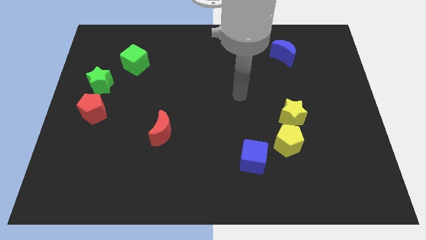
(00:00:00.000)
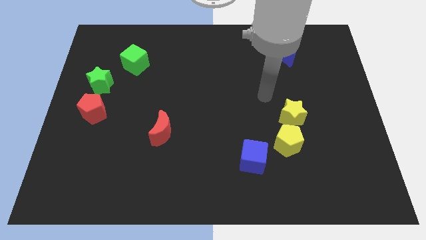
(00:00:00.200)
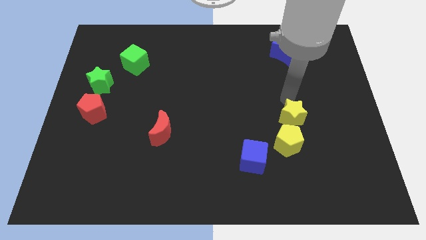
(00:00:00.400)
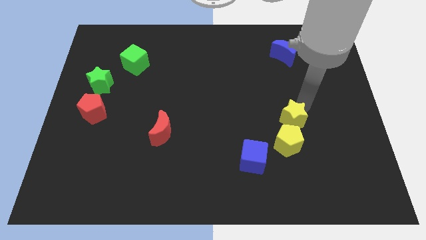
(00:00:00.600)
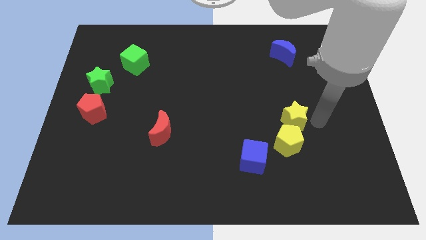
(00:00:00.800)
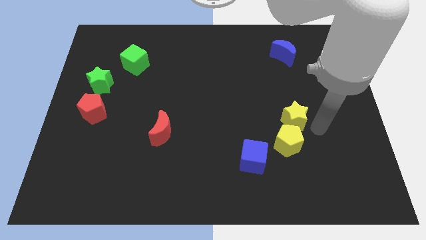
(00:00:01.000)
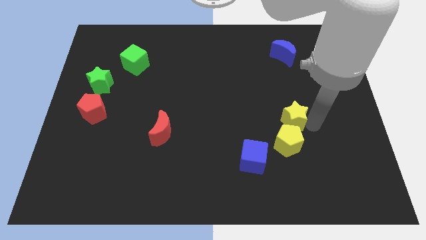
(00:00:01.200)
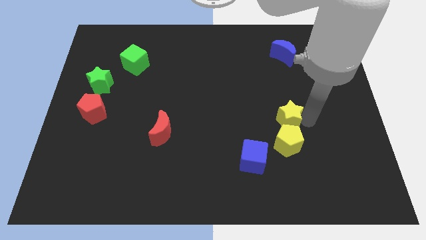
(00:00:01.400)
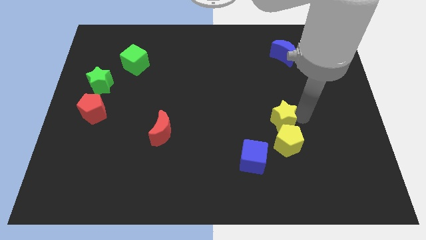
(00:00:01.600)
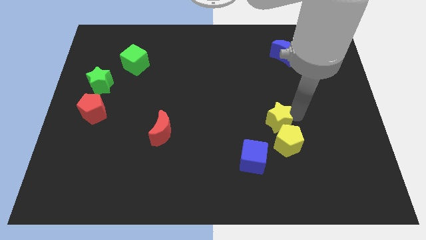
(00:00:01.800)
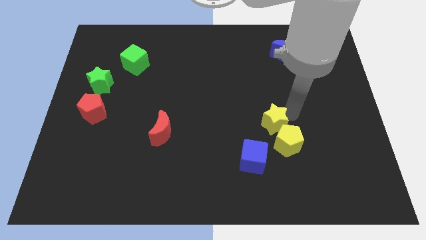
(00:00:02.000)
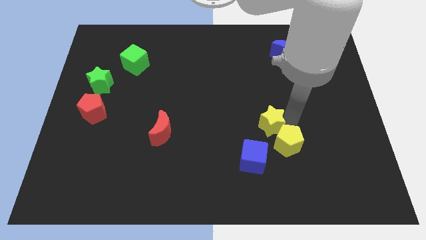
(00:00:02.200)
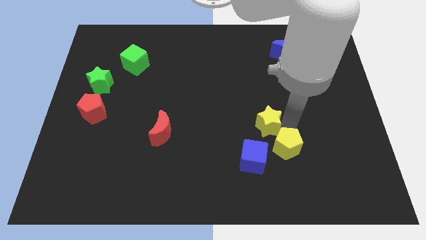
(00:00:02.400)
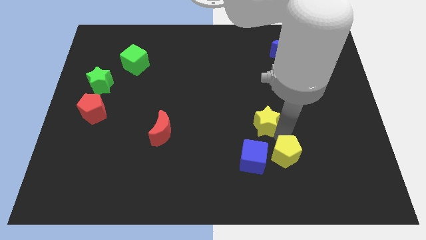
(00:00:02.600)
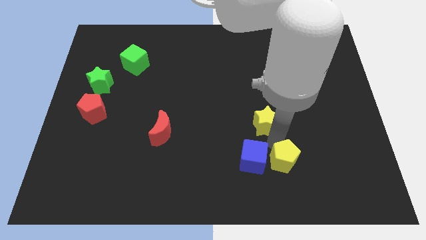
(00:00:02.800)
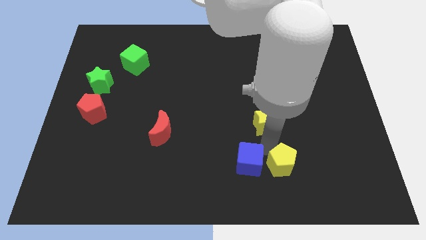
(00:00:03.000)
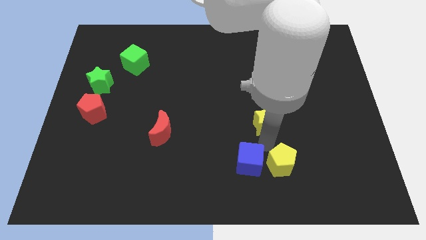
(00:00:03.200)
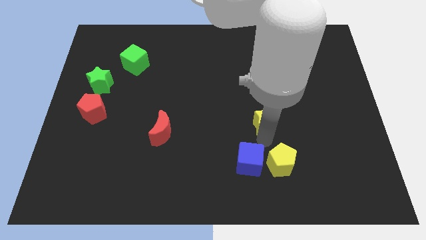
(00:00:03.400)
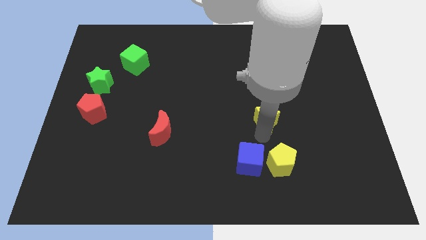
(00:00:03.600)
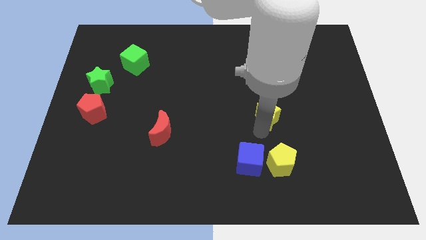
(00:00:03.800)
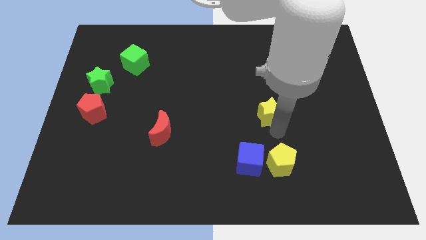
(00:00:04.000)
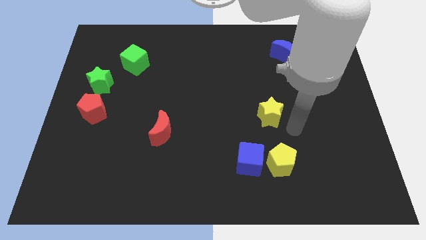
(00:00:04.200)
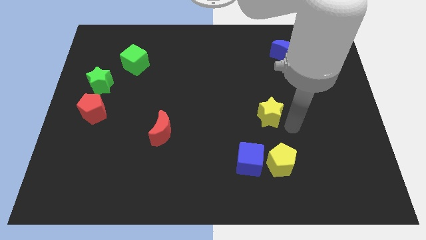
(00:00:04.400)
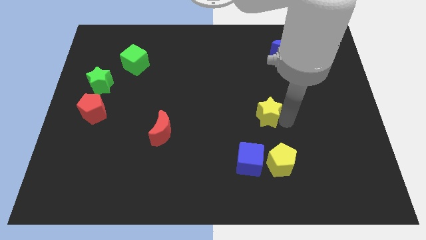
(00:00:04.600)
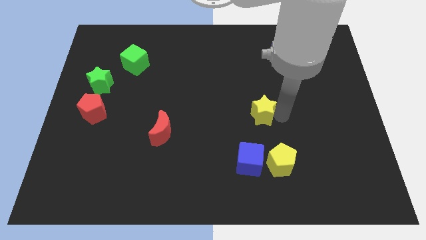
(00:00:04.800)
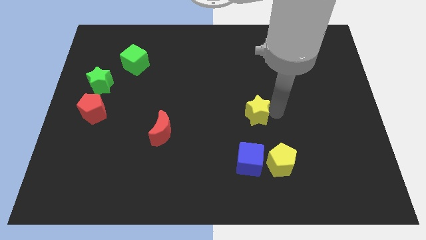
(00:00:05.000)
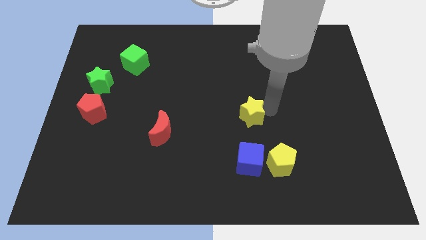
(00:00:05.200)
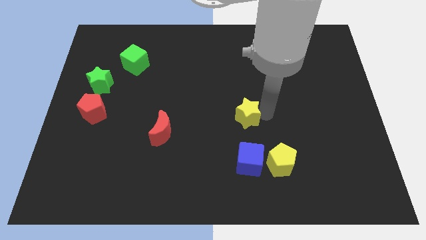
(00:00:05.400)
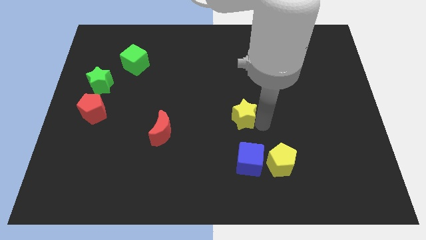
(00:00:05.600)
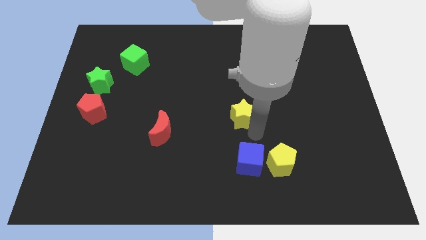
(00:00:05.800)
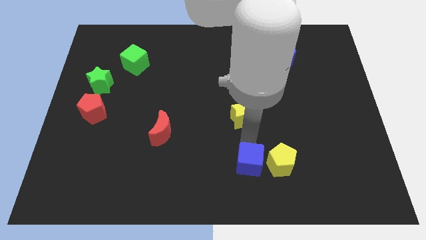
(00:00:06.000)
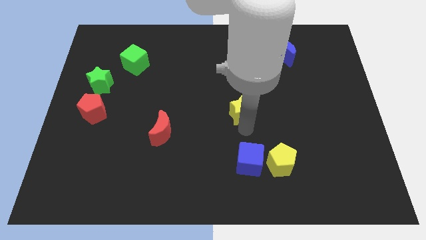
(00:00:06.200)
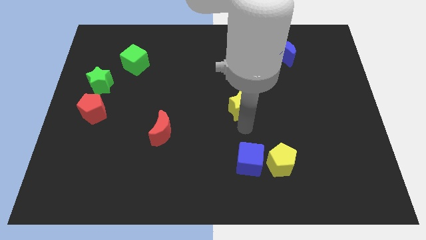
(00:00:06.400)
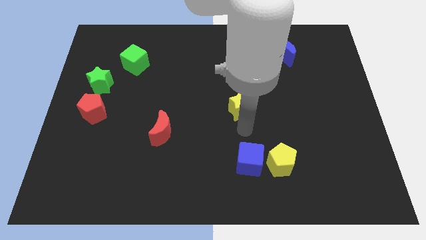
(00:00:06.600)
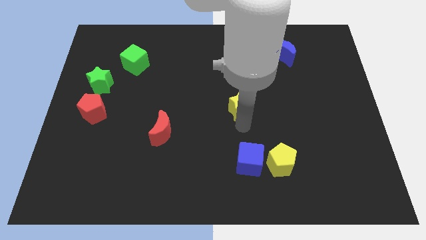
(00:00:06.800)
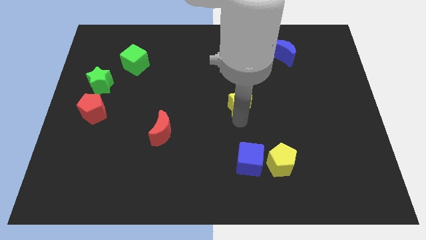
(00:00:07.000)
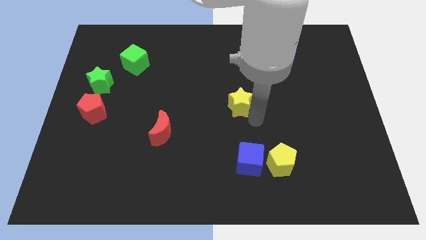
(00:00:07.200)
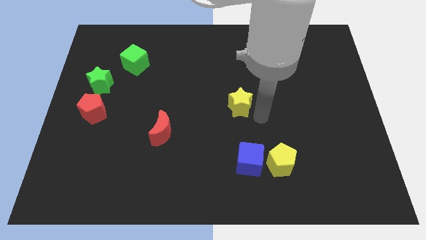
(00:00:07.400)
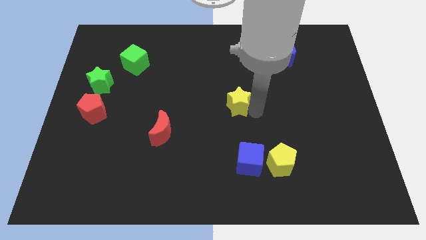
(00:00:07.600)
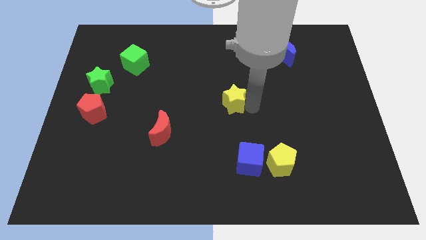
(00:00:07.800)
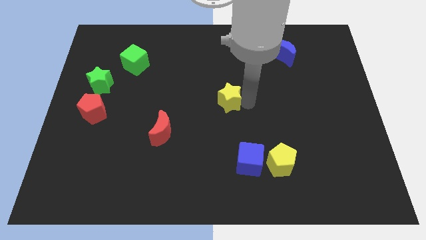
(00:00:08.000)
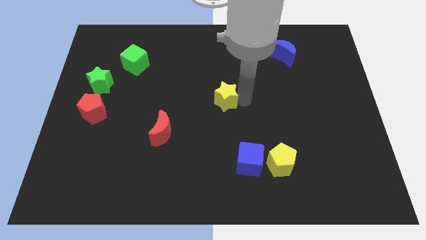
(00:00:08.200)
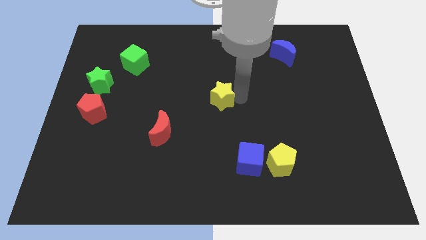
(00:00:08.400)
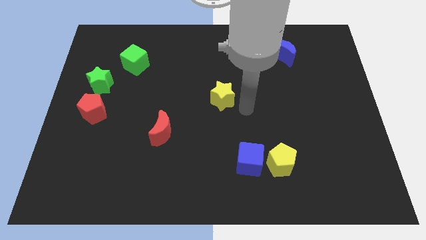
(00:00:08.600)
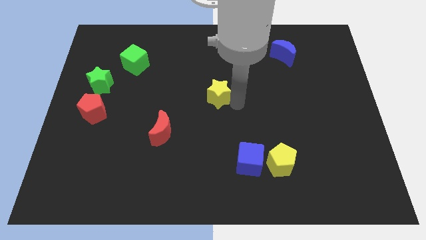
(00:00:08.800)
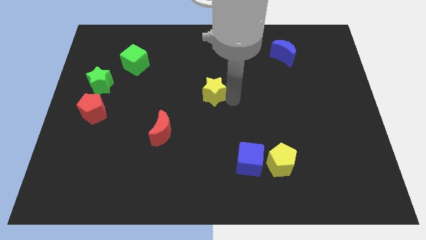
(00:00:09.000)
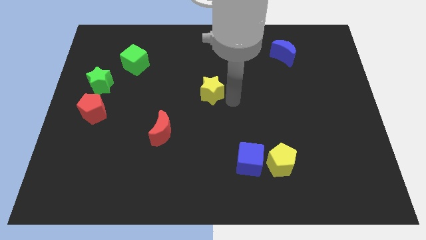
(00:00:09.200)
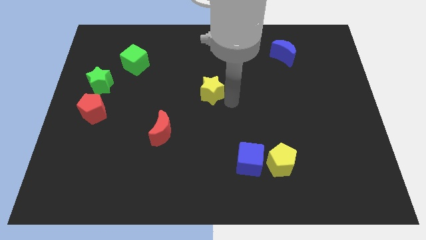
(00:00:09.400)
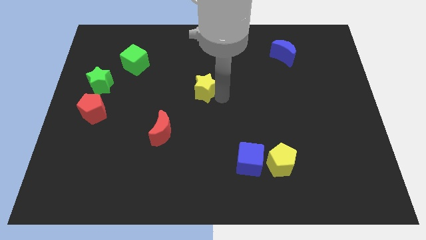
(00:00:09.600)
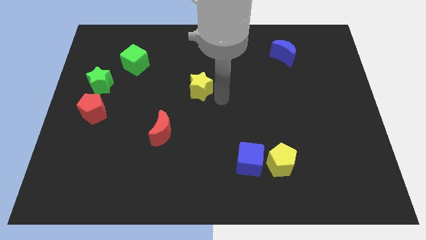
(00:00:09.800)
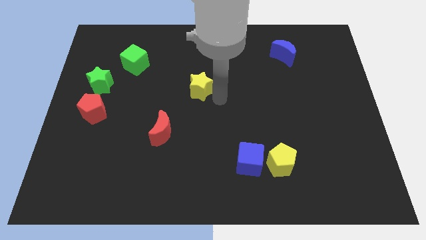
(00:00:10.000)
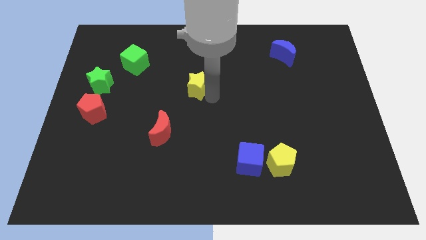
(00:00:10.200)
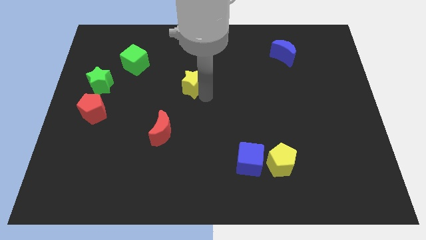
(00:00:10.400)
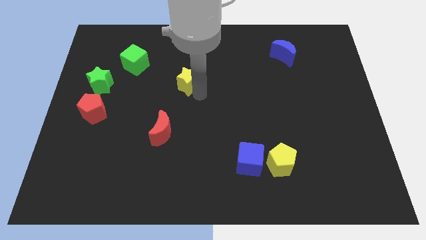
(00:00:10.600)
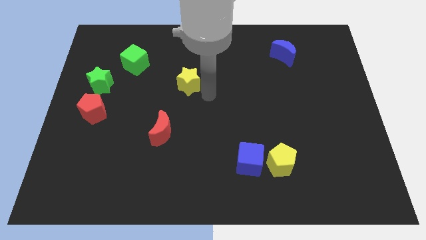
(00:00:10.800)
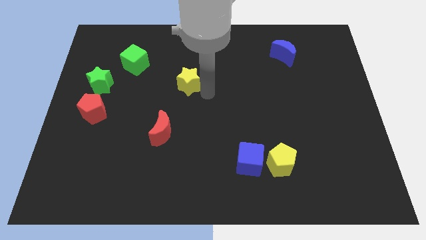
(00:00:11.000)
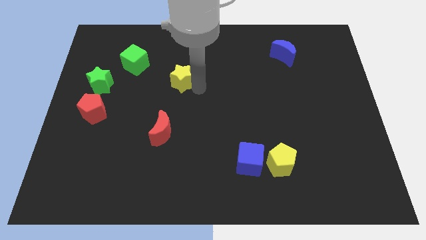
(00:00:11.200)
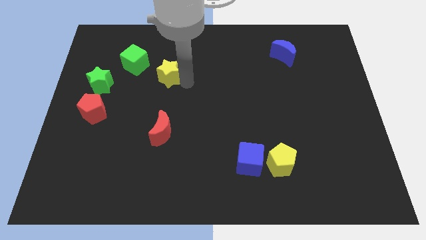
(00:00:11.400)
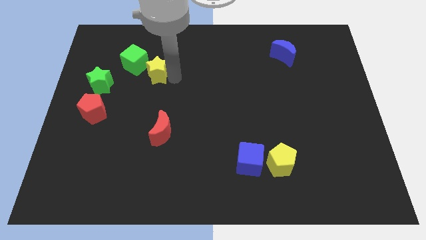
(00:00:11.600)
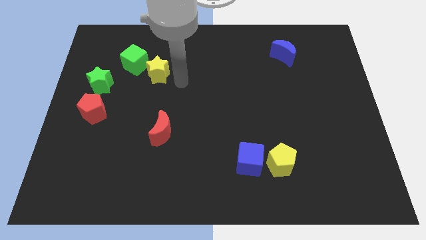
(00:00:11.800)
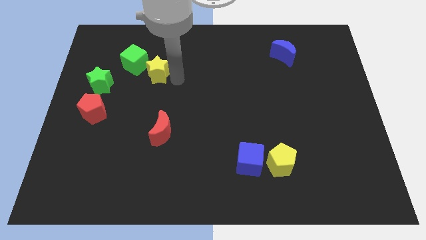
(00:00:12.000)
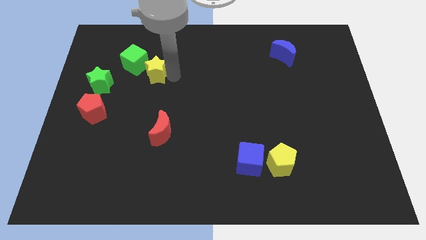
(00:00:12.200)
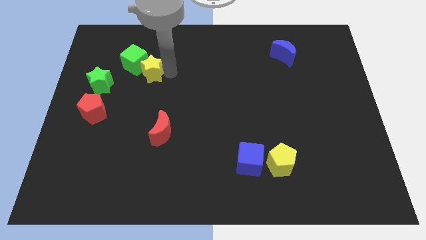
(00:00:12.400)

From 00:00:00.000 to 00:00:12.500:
slide the yellow star next to the green cube
